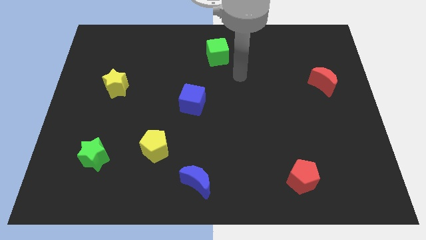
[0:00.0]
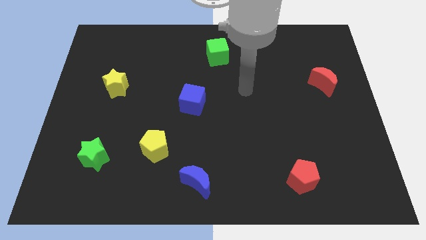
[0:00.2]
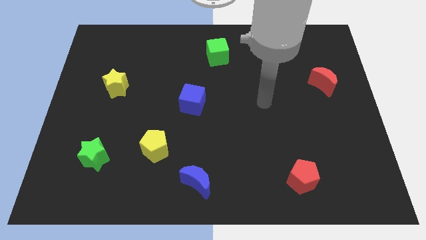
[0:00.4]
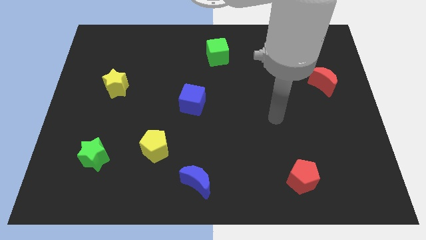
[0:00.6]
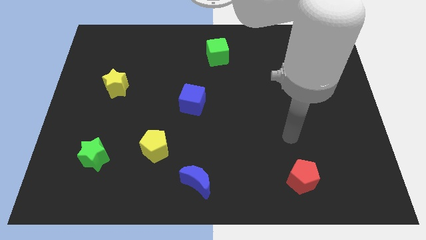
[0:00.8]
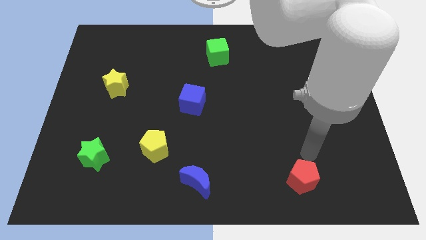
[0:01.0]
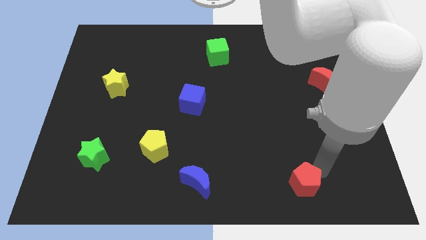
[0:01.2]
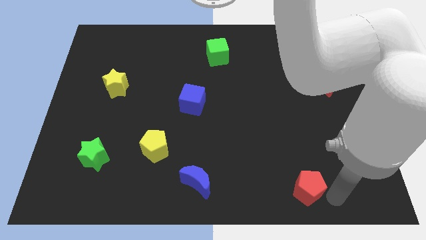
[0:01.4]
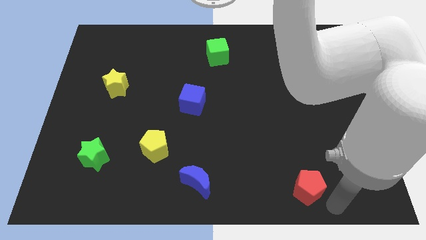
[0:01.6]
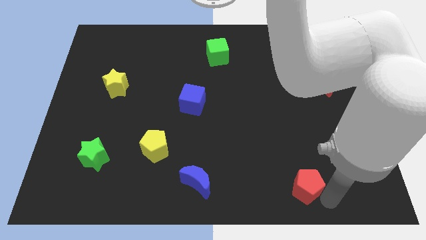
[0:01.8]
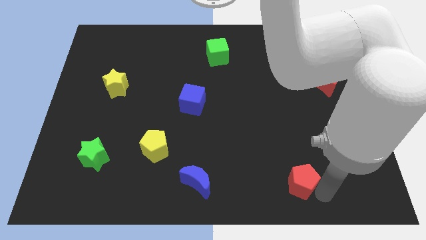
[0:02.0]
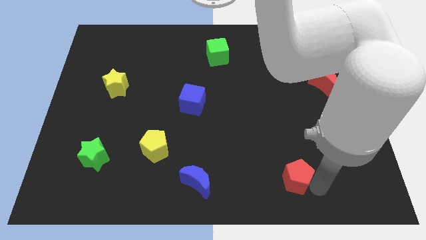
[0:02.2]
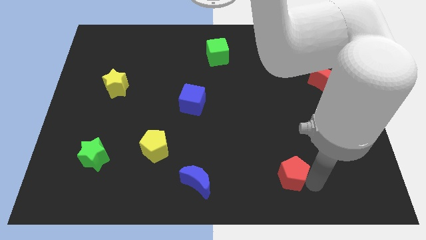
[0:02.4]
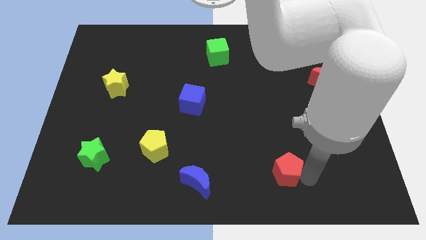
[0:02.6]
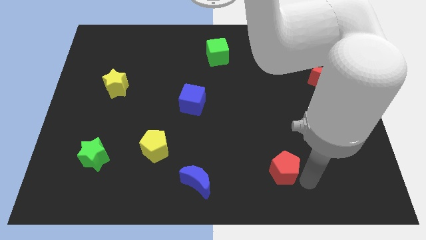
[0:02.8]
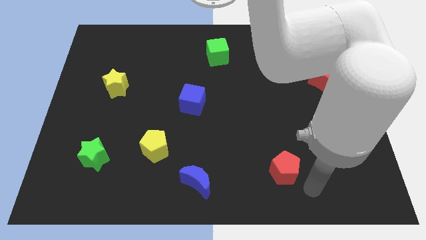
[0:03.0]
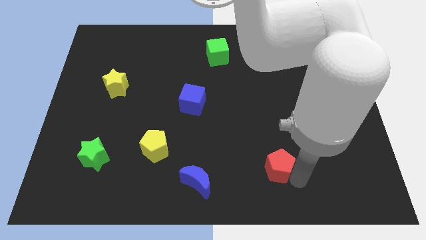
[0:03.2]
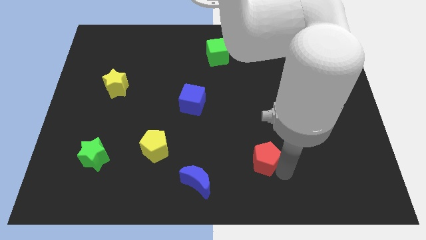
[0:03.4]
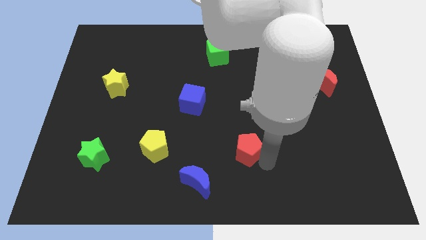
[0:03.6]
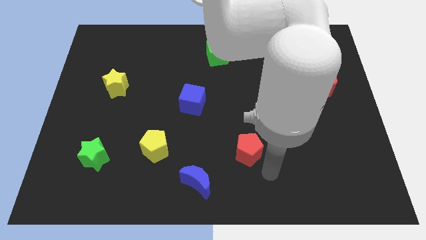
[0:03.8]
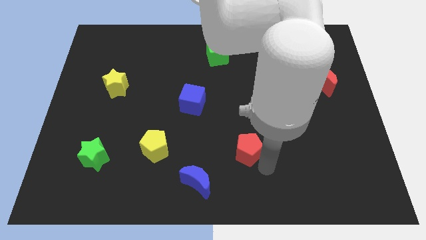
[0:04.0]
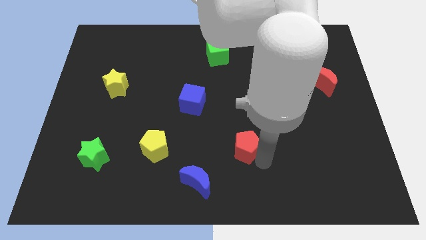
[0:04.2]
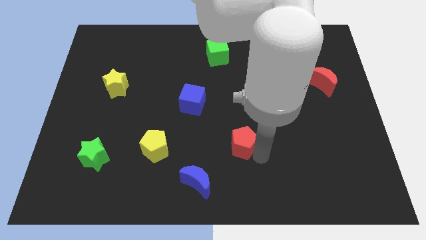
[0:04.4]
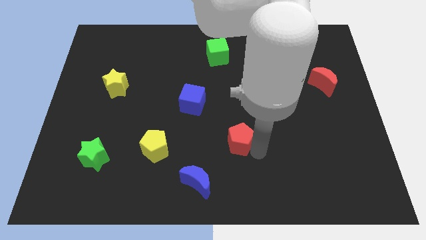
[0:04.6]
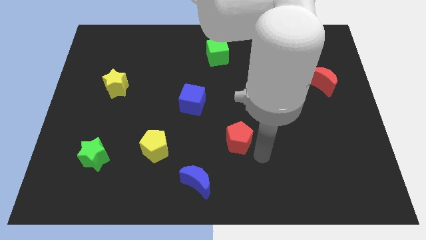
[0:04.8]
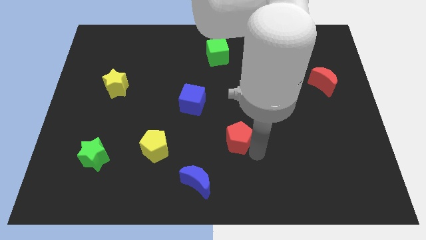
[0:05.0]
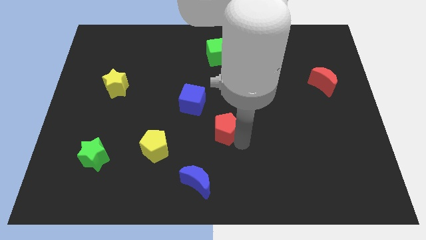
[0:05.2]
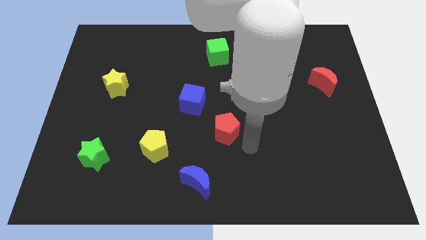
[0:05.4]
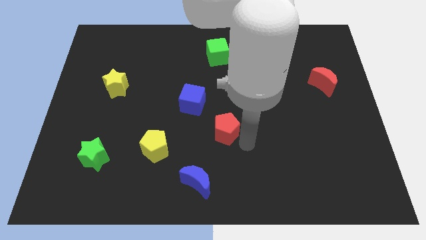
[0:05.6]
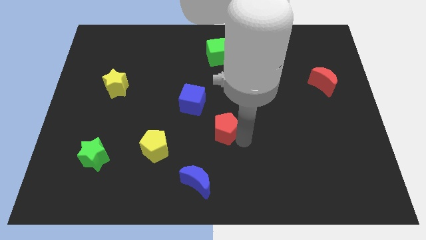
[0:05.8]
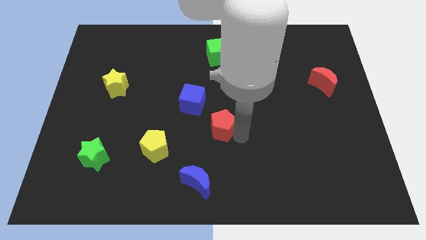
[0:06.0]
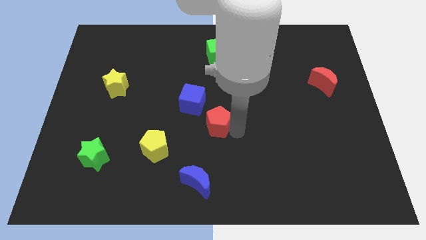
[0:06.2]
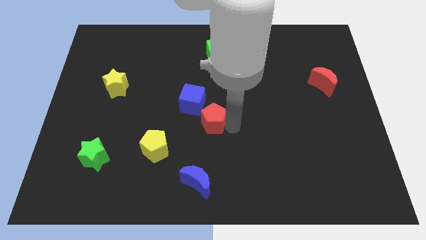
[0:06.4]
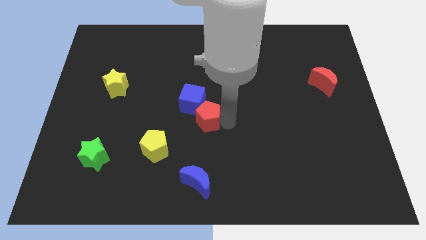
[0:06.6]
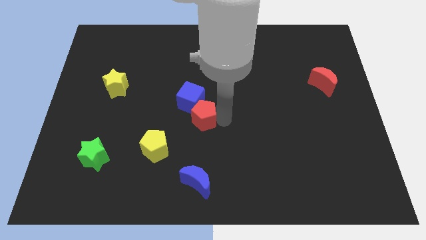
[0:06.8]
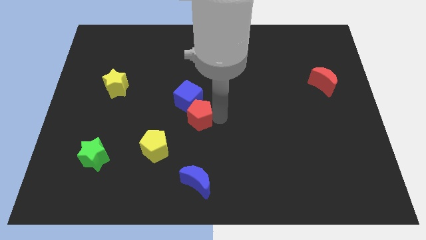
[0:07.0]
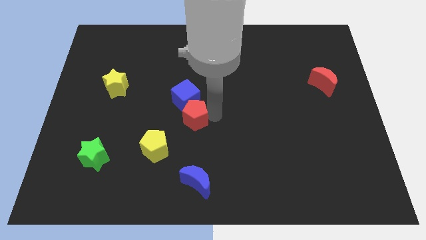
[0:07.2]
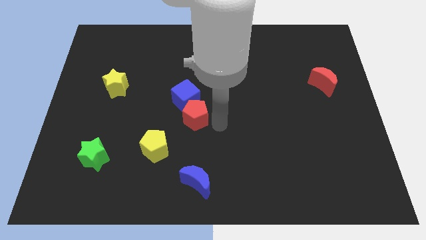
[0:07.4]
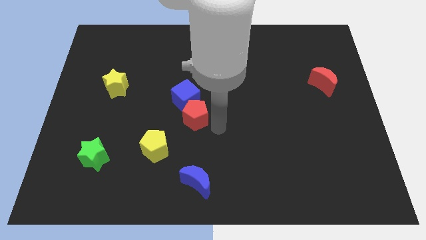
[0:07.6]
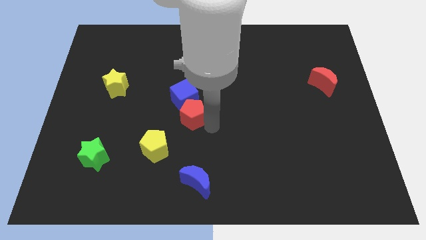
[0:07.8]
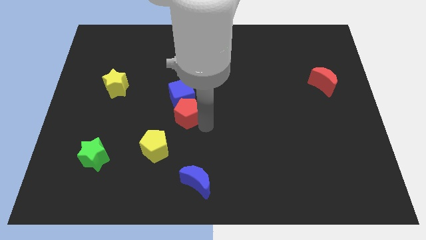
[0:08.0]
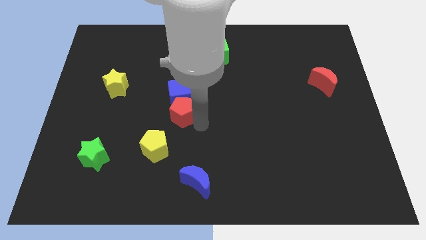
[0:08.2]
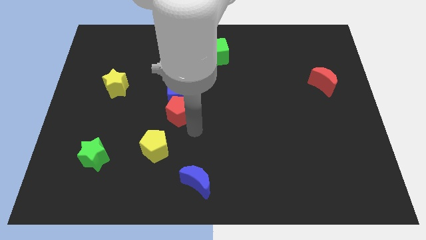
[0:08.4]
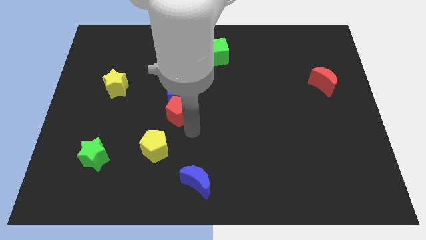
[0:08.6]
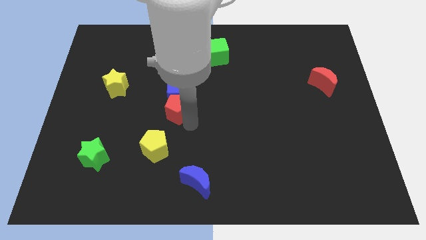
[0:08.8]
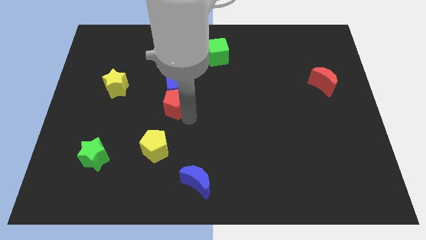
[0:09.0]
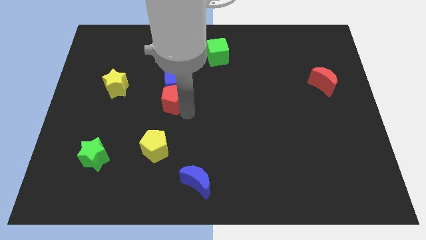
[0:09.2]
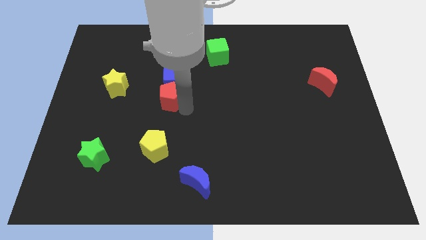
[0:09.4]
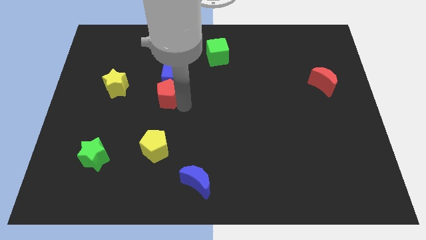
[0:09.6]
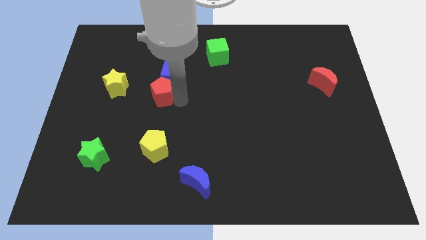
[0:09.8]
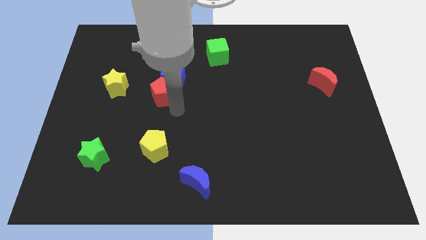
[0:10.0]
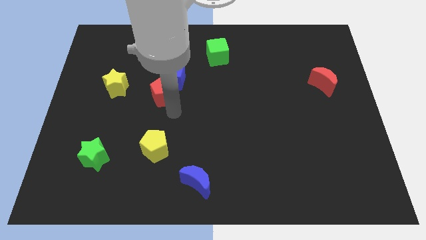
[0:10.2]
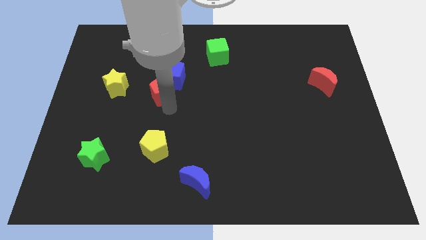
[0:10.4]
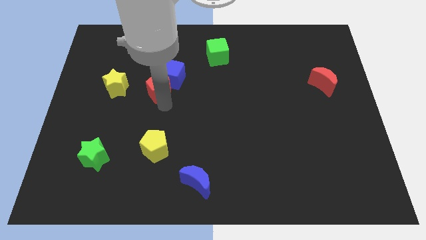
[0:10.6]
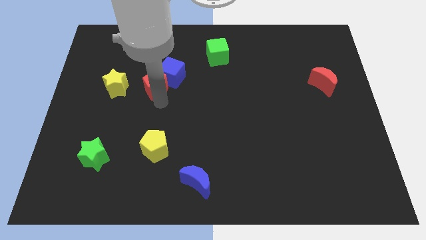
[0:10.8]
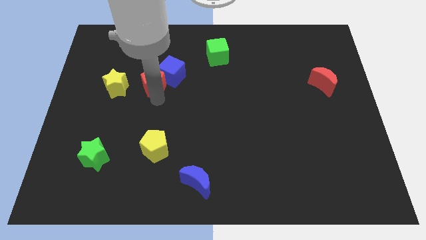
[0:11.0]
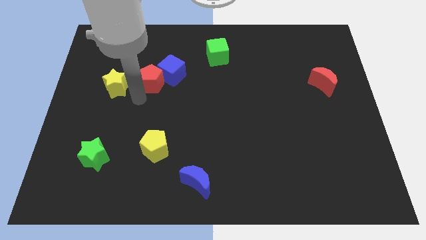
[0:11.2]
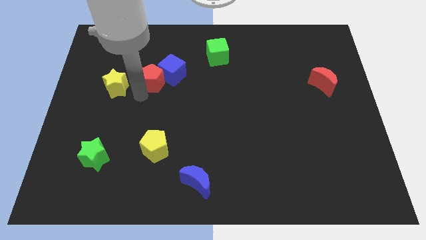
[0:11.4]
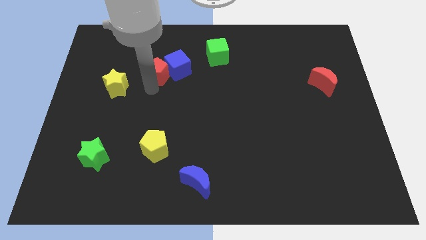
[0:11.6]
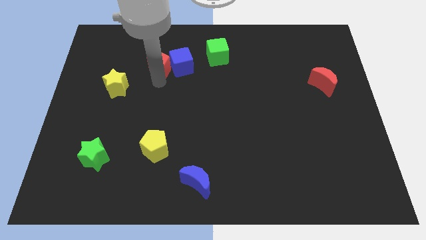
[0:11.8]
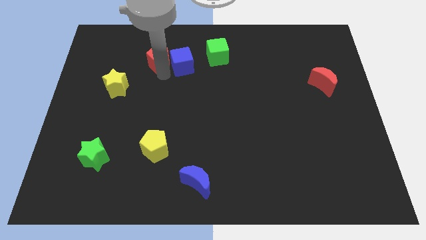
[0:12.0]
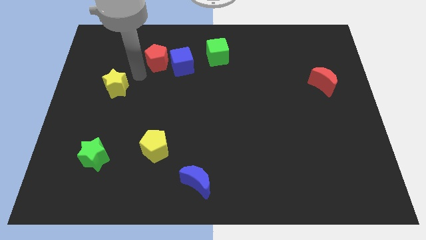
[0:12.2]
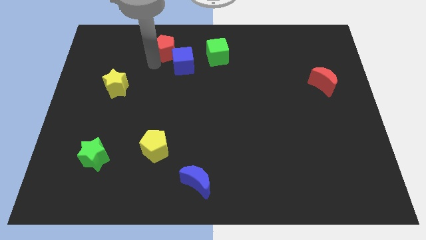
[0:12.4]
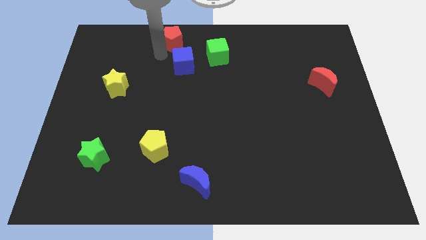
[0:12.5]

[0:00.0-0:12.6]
push the red pentagon to the top side
